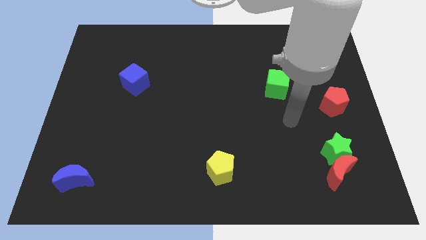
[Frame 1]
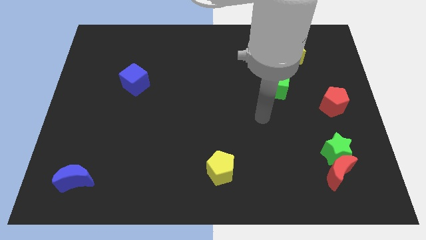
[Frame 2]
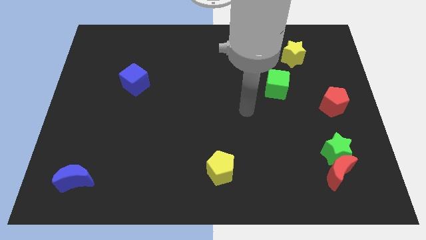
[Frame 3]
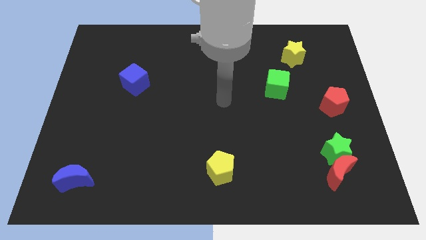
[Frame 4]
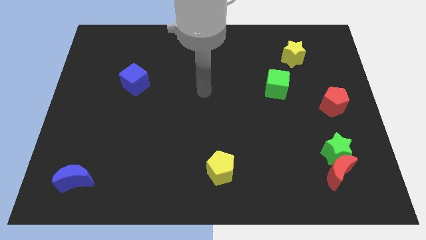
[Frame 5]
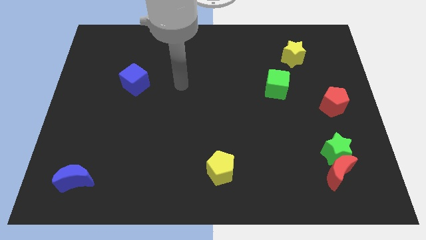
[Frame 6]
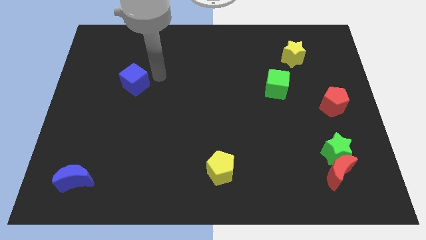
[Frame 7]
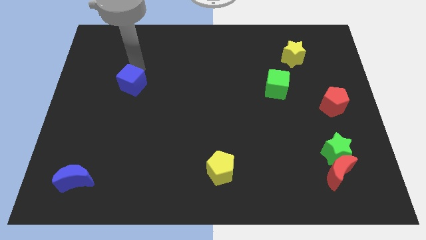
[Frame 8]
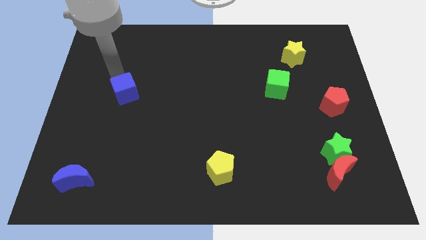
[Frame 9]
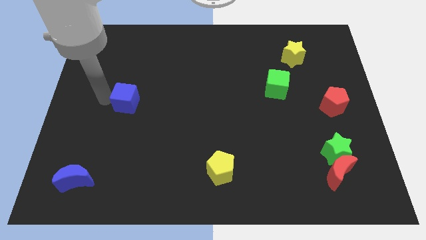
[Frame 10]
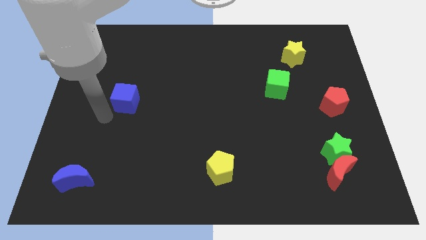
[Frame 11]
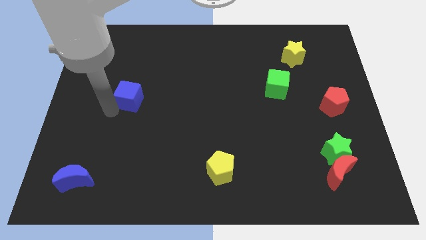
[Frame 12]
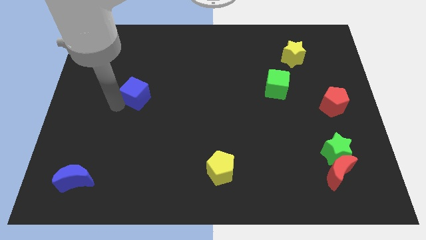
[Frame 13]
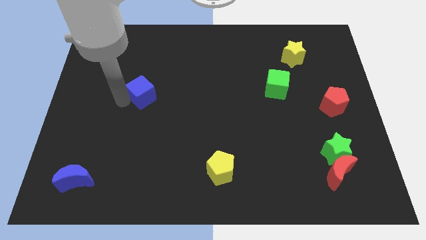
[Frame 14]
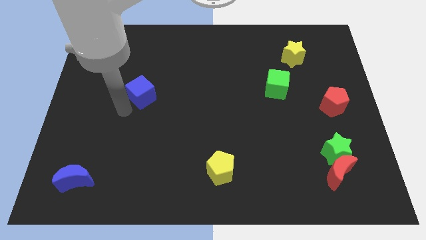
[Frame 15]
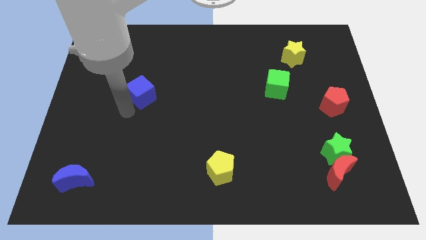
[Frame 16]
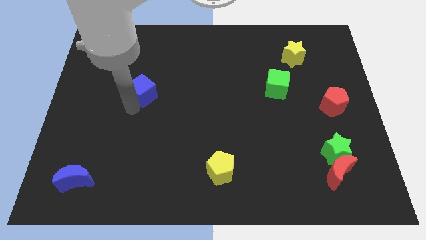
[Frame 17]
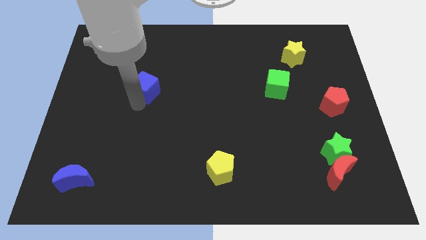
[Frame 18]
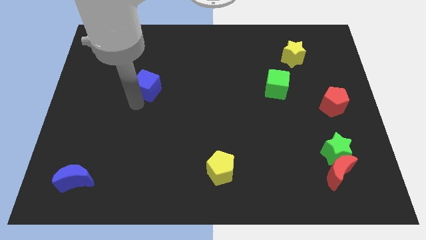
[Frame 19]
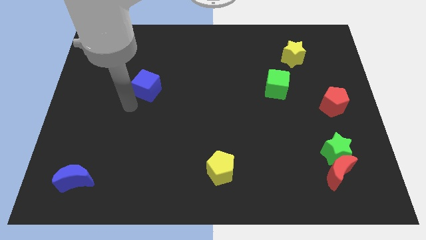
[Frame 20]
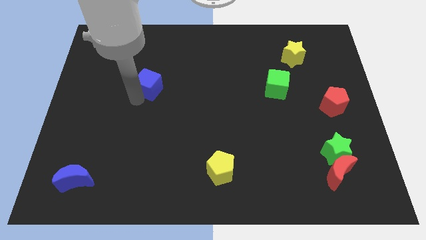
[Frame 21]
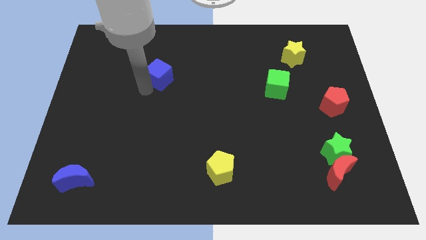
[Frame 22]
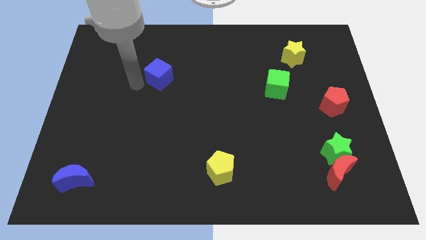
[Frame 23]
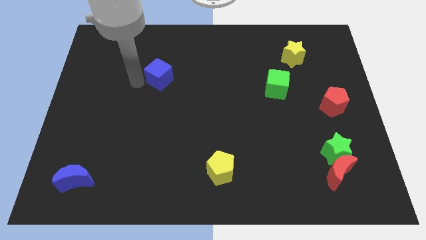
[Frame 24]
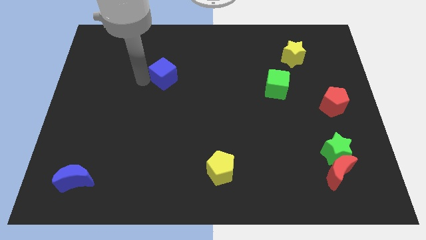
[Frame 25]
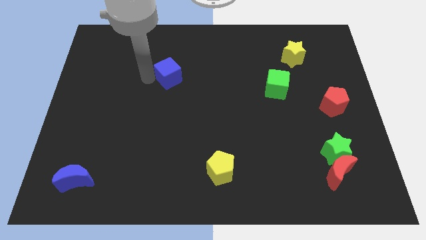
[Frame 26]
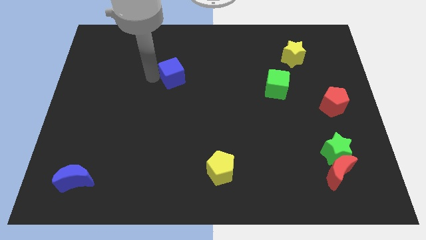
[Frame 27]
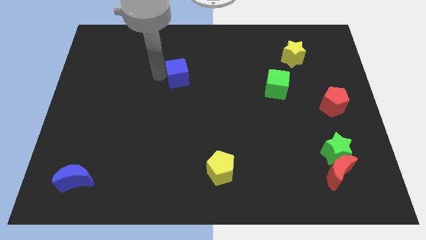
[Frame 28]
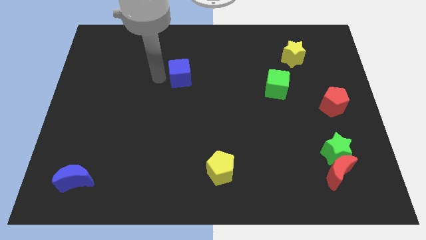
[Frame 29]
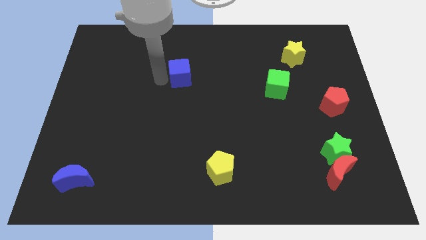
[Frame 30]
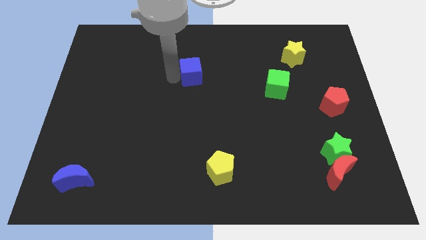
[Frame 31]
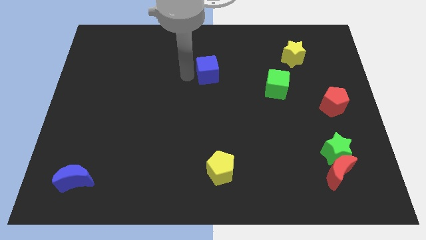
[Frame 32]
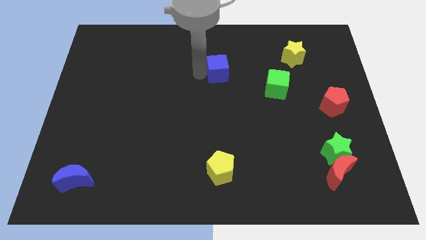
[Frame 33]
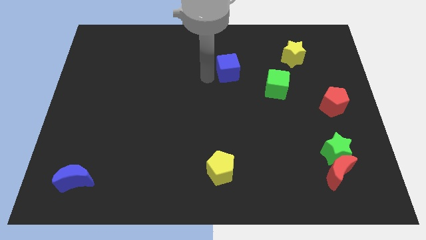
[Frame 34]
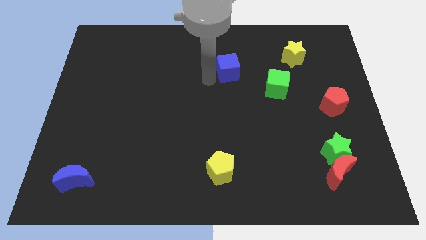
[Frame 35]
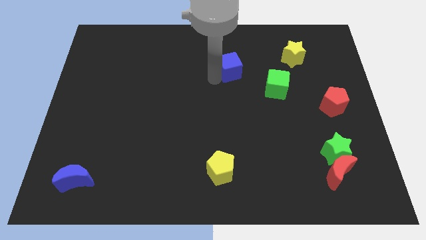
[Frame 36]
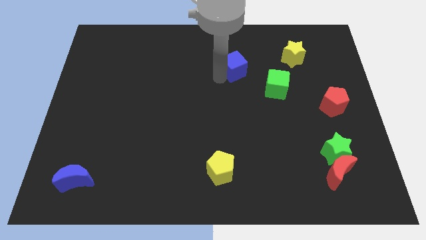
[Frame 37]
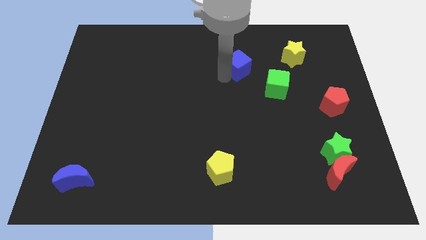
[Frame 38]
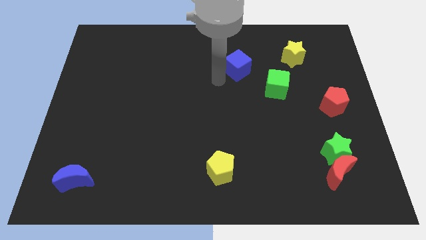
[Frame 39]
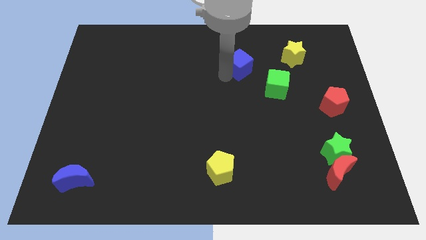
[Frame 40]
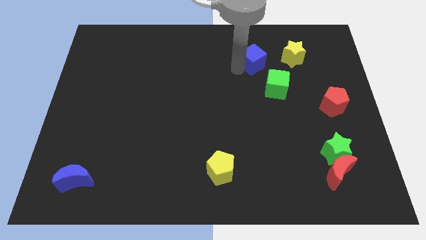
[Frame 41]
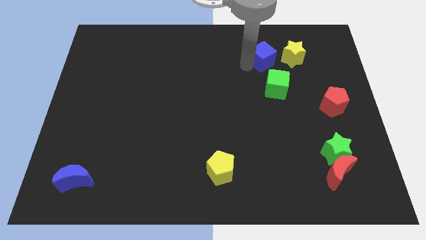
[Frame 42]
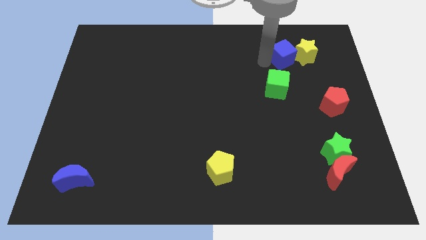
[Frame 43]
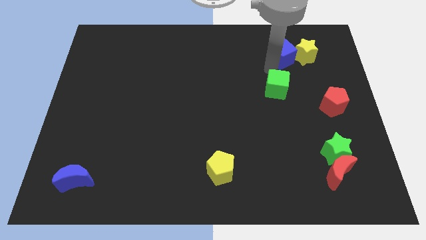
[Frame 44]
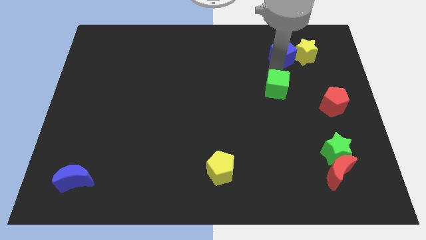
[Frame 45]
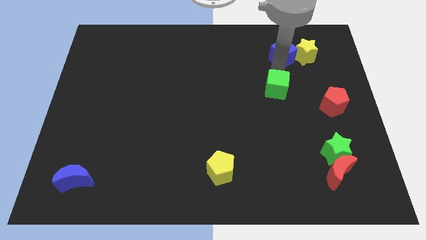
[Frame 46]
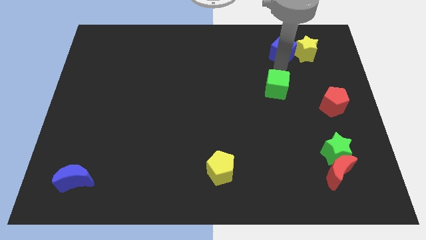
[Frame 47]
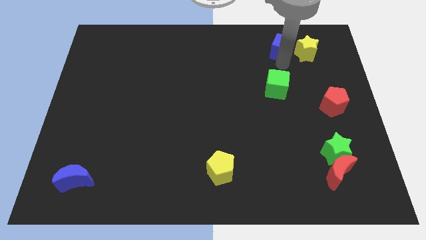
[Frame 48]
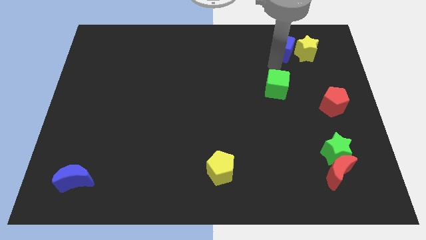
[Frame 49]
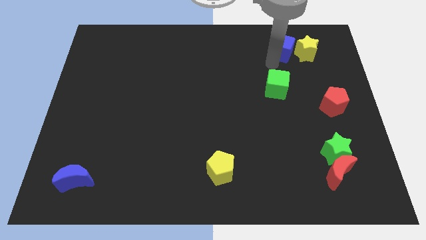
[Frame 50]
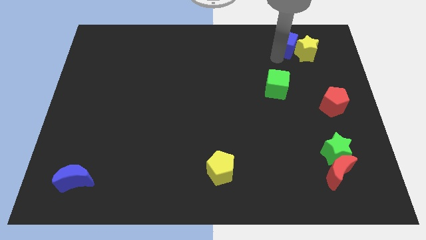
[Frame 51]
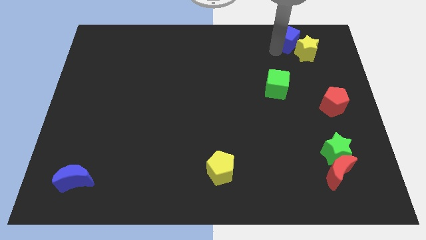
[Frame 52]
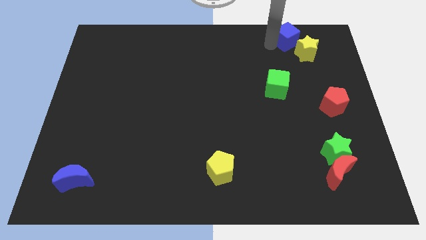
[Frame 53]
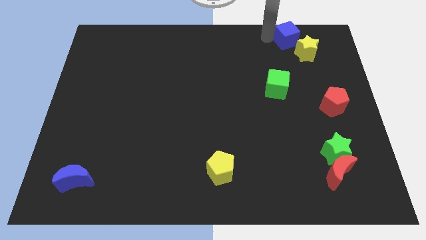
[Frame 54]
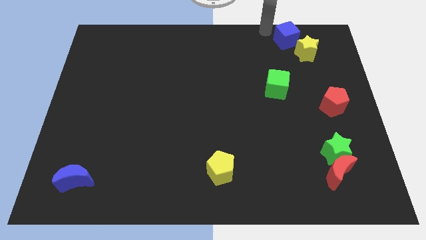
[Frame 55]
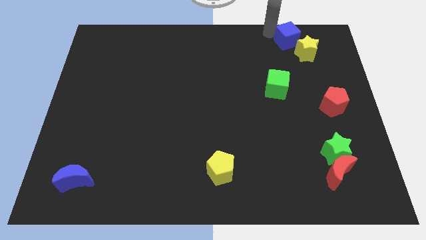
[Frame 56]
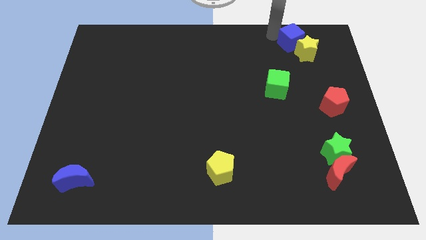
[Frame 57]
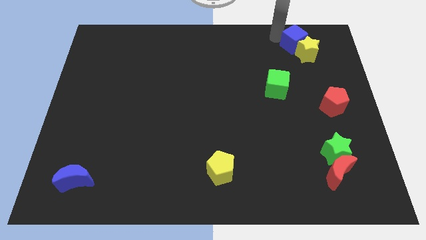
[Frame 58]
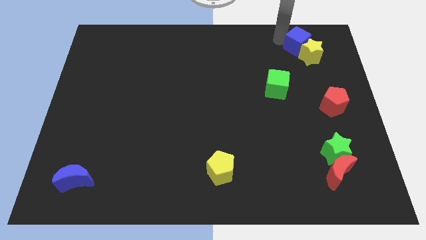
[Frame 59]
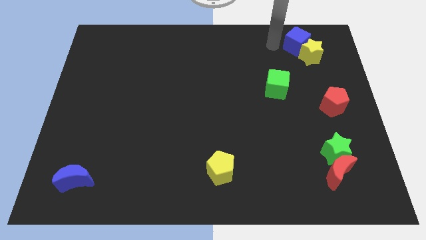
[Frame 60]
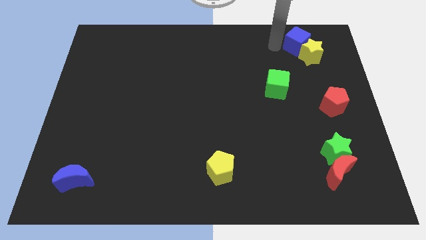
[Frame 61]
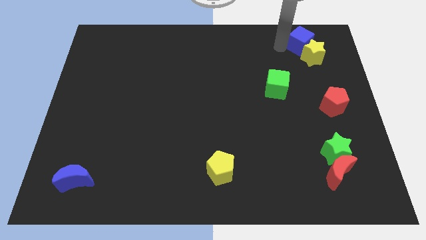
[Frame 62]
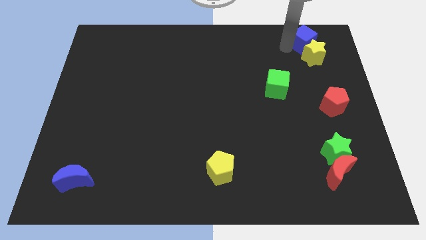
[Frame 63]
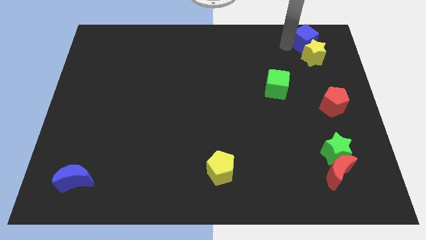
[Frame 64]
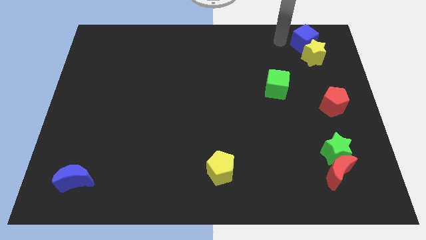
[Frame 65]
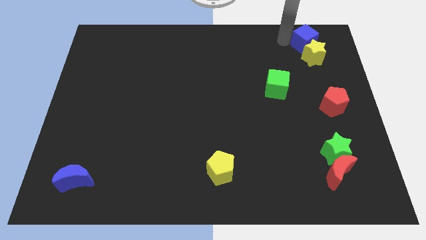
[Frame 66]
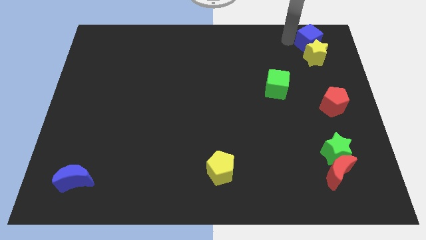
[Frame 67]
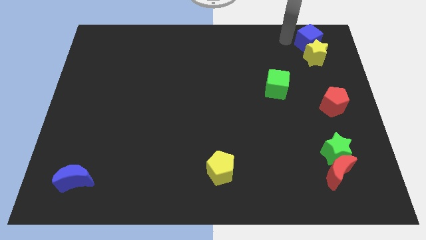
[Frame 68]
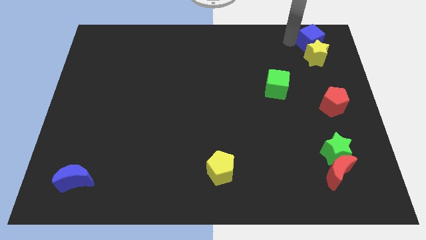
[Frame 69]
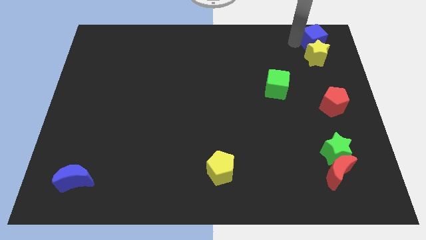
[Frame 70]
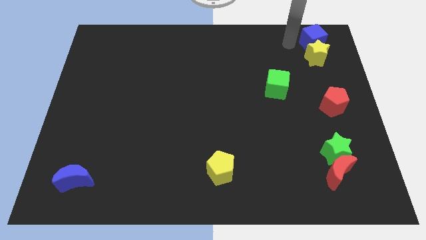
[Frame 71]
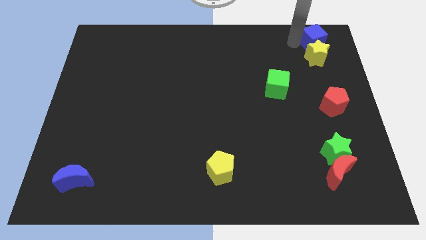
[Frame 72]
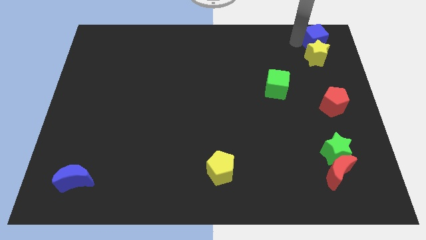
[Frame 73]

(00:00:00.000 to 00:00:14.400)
put the blue cube to the top right corner

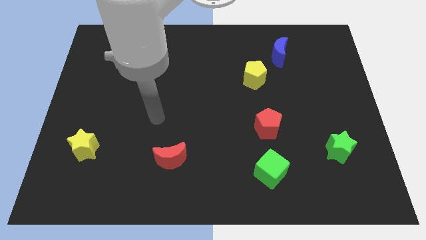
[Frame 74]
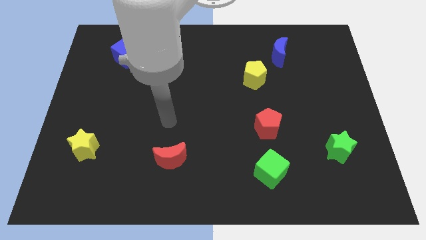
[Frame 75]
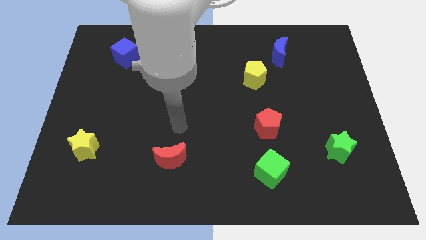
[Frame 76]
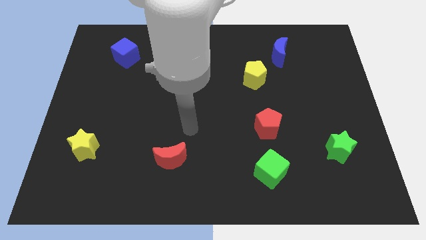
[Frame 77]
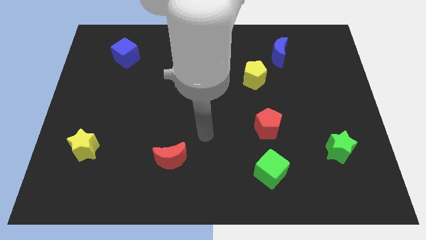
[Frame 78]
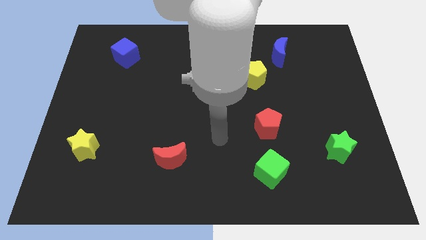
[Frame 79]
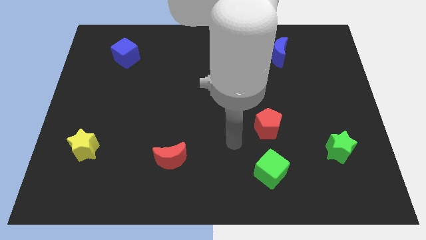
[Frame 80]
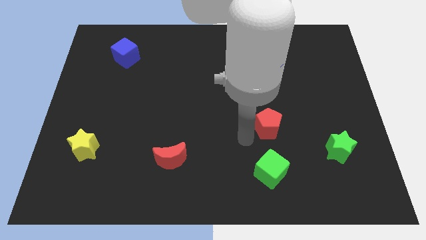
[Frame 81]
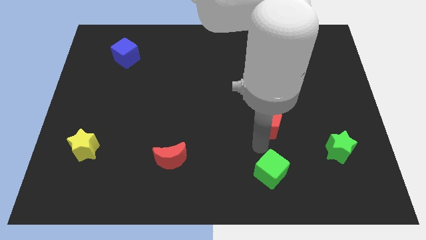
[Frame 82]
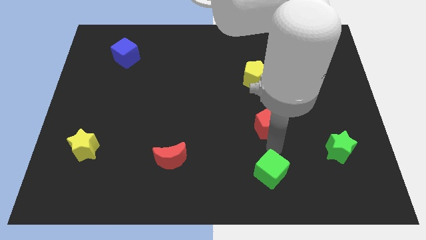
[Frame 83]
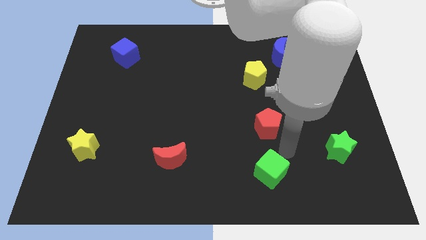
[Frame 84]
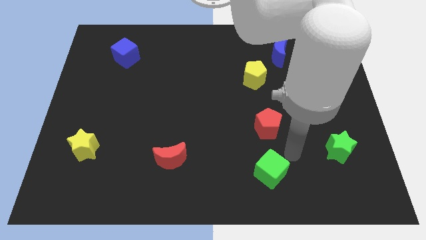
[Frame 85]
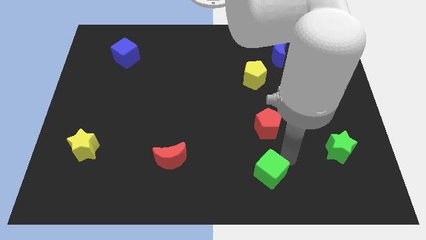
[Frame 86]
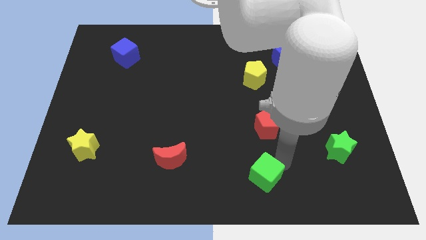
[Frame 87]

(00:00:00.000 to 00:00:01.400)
put the green cube to the bottom side

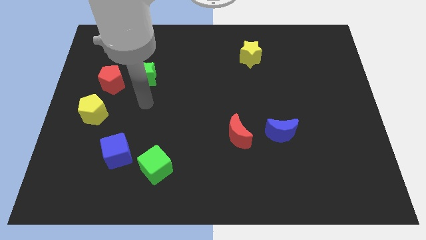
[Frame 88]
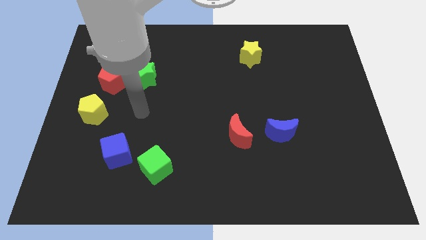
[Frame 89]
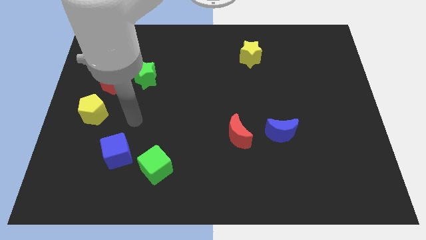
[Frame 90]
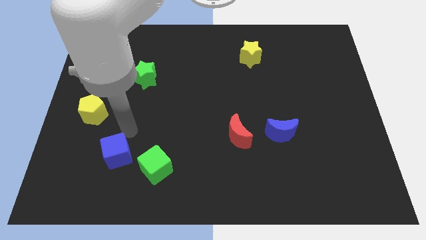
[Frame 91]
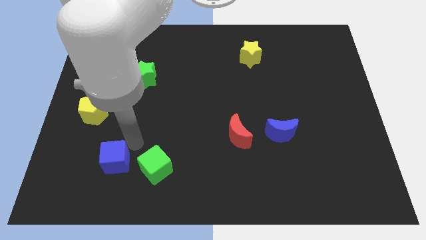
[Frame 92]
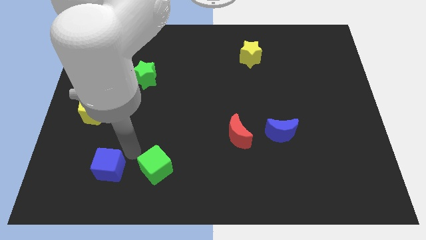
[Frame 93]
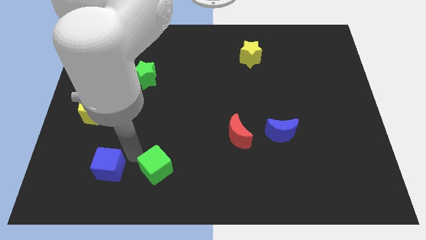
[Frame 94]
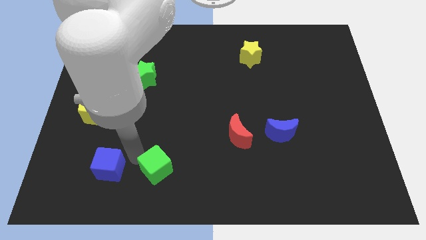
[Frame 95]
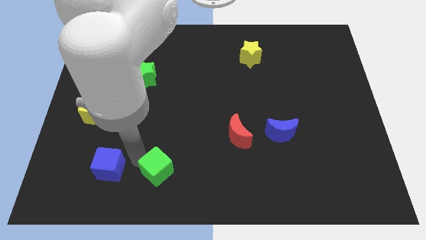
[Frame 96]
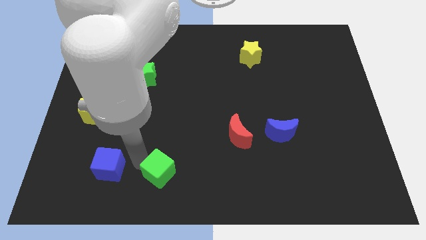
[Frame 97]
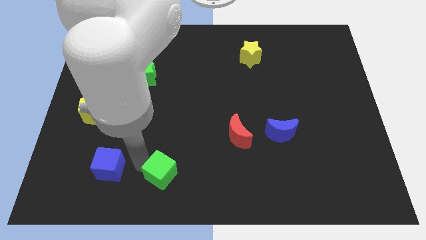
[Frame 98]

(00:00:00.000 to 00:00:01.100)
slide the green cube to the bottom side
